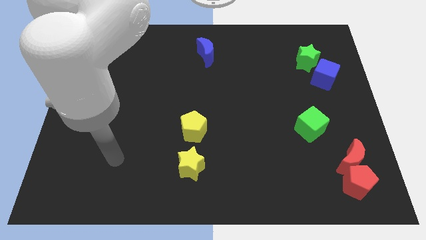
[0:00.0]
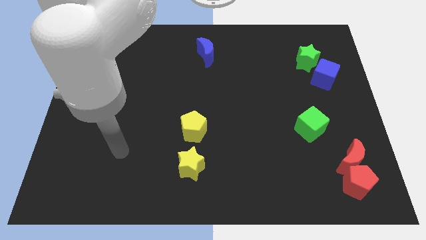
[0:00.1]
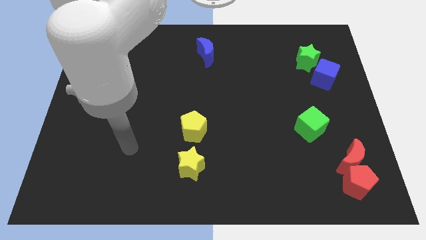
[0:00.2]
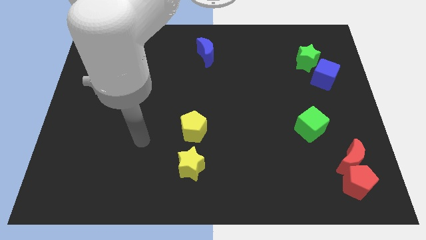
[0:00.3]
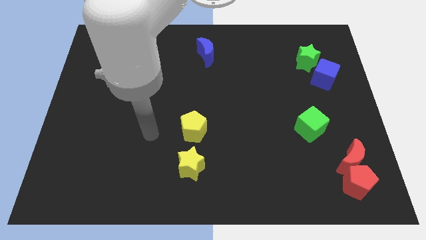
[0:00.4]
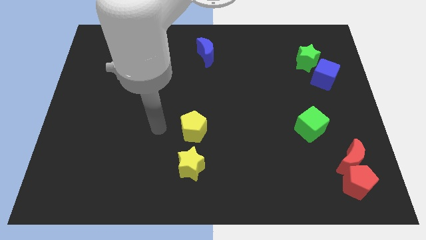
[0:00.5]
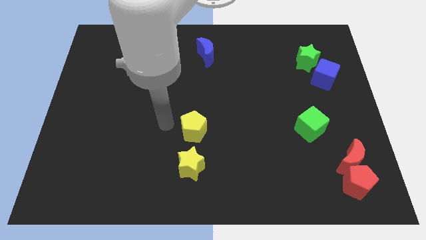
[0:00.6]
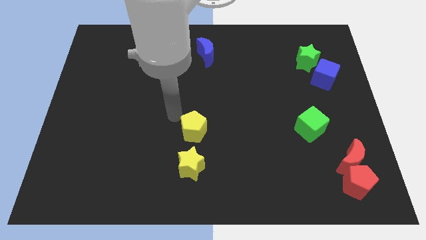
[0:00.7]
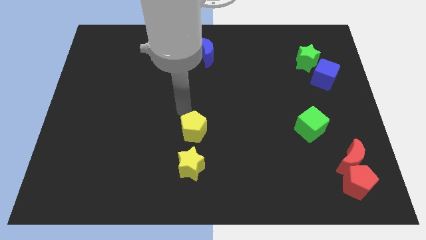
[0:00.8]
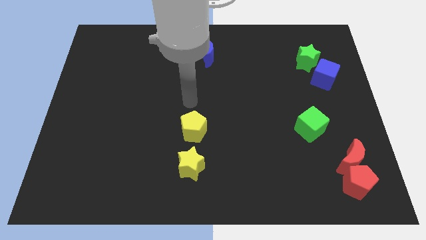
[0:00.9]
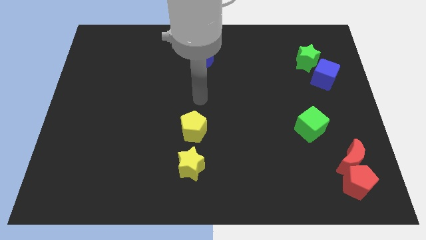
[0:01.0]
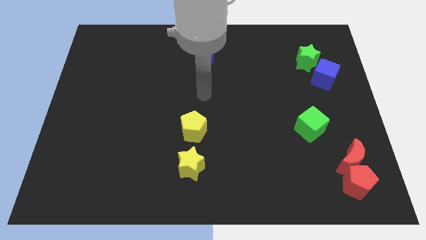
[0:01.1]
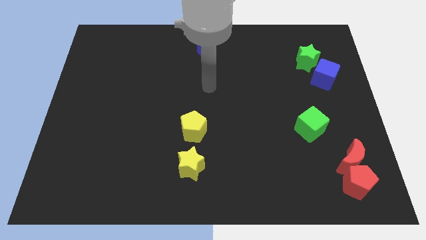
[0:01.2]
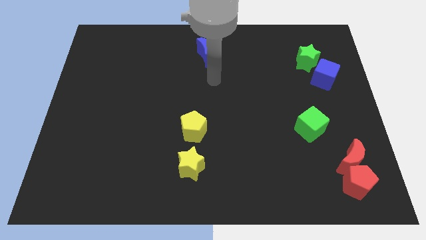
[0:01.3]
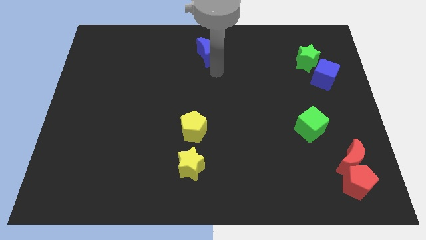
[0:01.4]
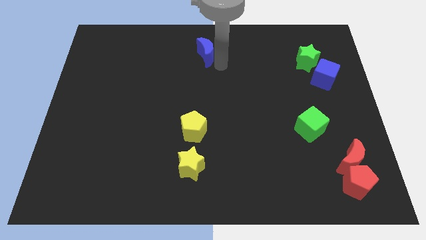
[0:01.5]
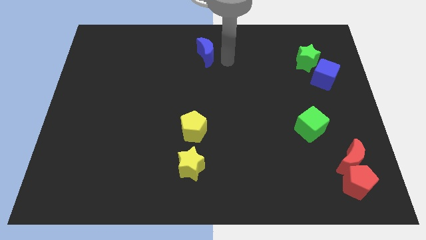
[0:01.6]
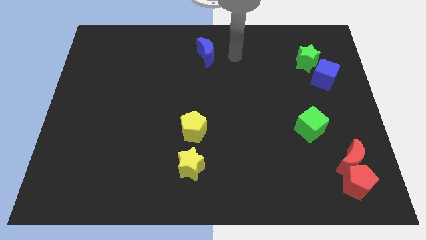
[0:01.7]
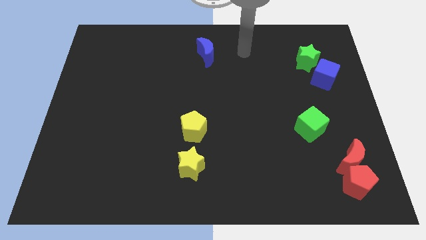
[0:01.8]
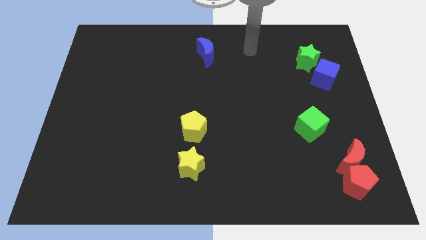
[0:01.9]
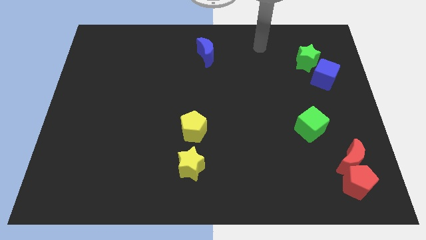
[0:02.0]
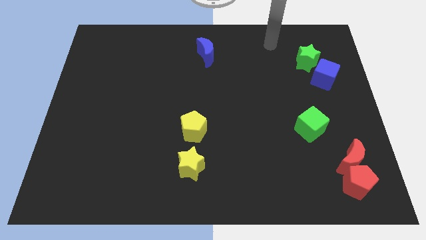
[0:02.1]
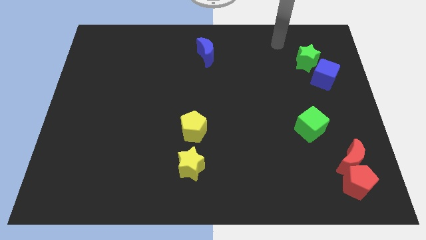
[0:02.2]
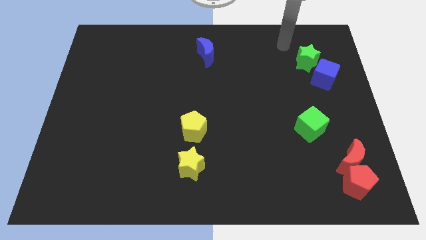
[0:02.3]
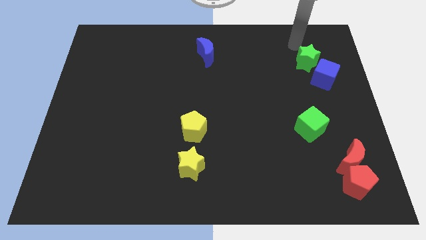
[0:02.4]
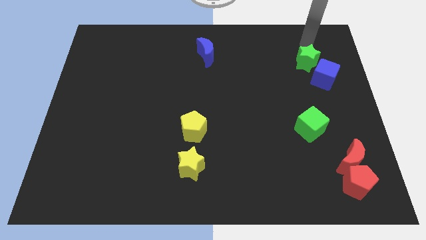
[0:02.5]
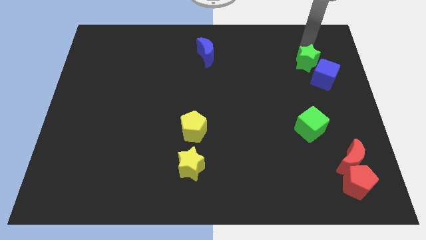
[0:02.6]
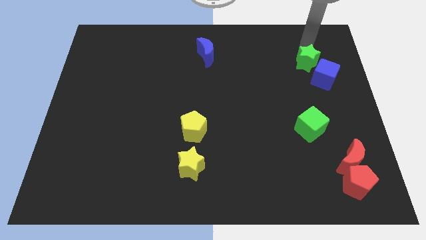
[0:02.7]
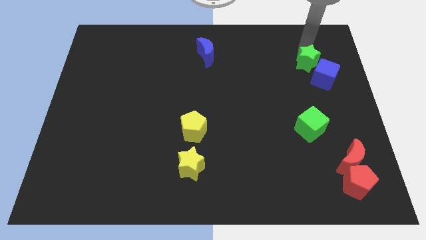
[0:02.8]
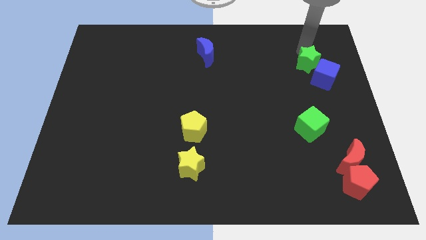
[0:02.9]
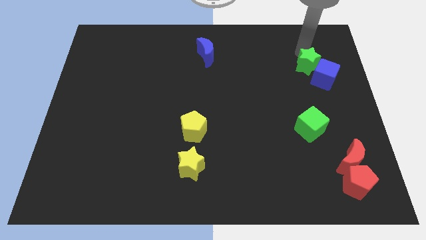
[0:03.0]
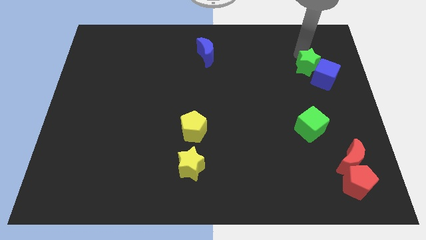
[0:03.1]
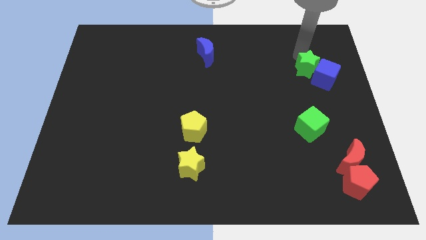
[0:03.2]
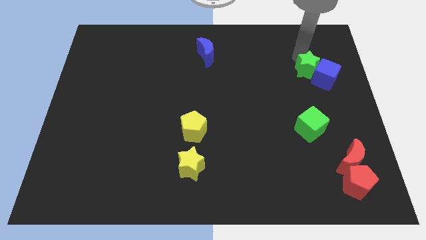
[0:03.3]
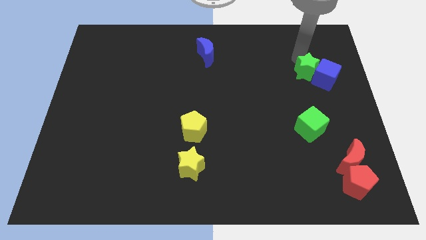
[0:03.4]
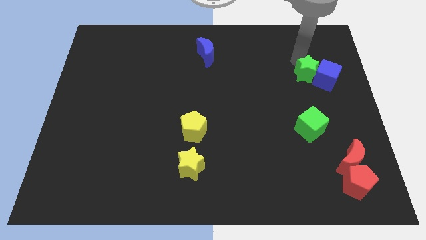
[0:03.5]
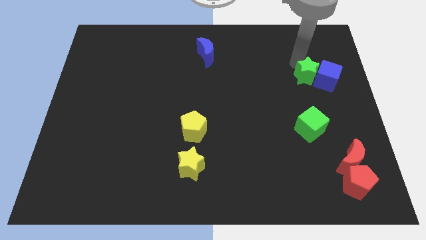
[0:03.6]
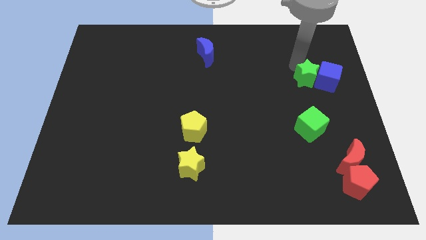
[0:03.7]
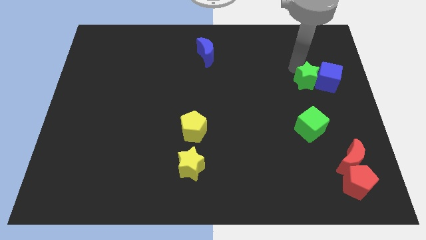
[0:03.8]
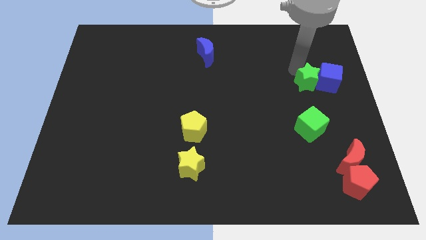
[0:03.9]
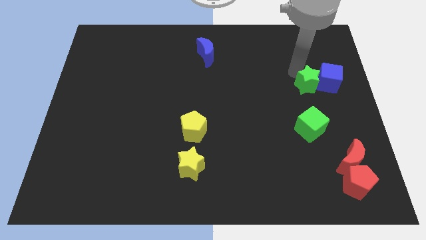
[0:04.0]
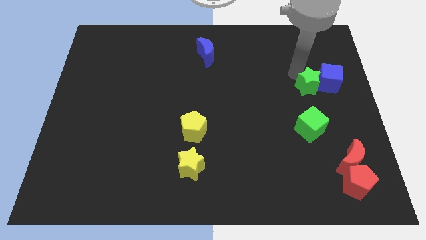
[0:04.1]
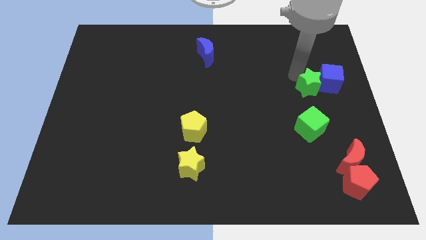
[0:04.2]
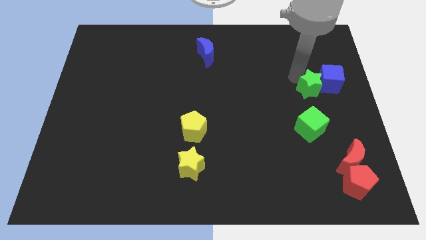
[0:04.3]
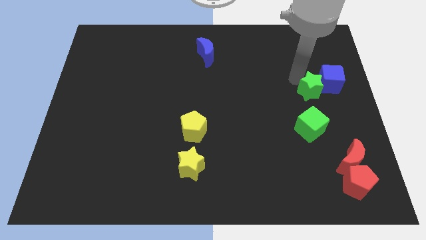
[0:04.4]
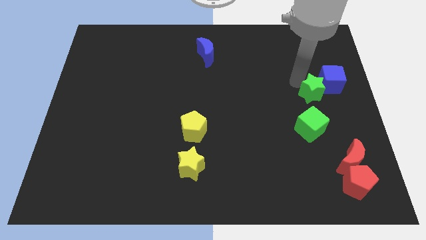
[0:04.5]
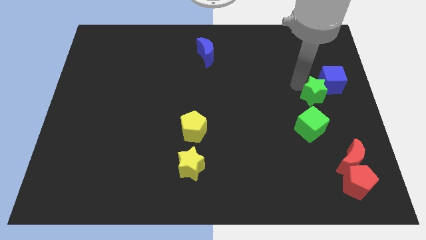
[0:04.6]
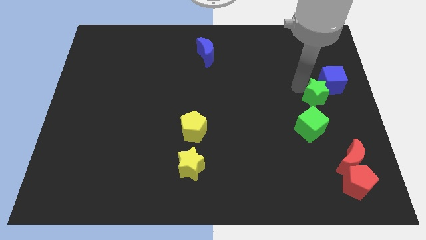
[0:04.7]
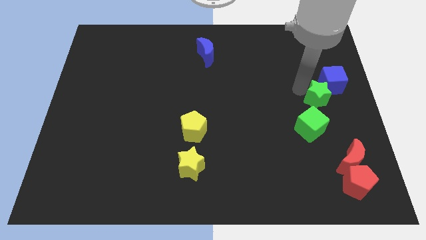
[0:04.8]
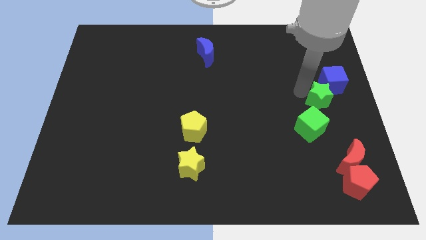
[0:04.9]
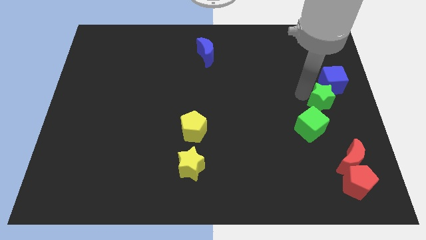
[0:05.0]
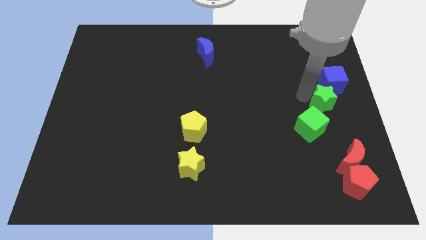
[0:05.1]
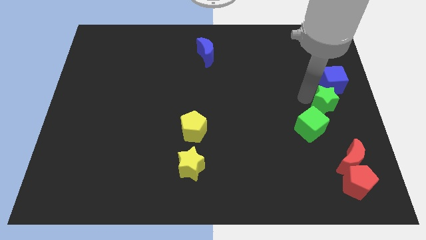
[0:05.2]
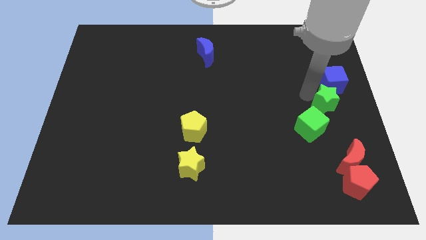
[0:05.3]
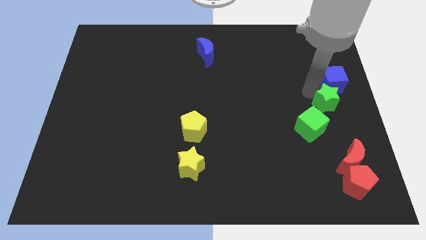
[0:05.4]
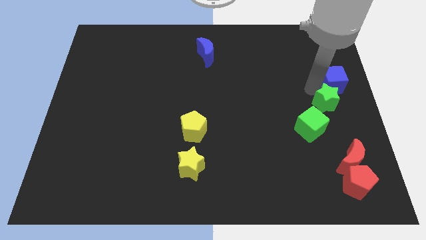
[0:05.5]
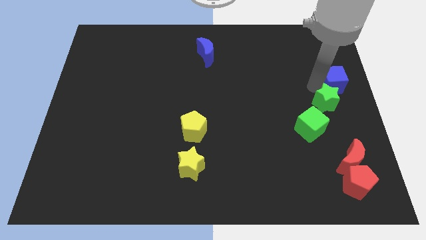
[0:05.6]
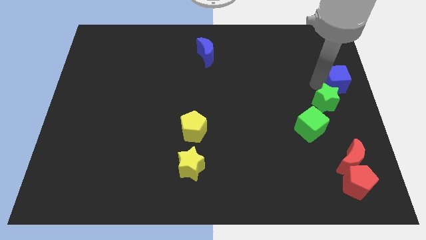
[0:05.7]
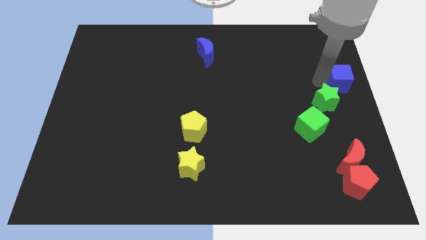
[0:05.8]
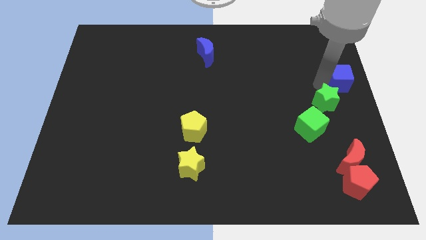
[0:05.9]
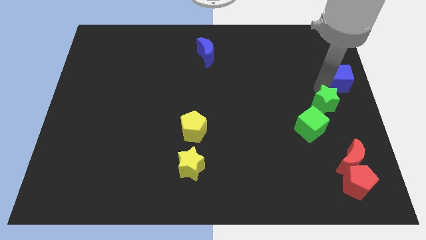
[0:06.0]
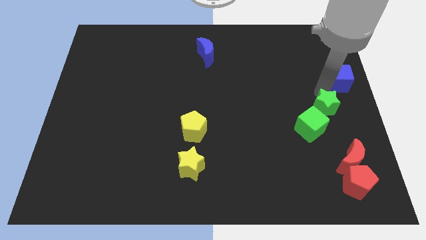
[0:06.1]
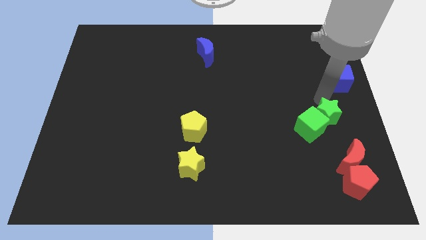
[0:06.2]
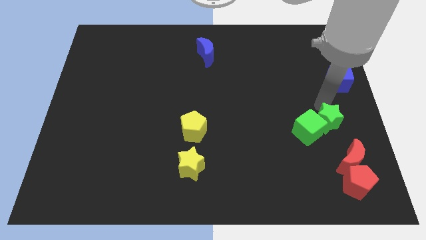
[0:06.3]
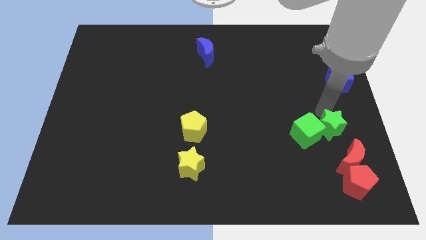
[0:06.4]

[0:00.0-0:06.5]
push the green star down
